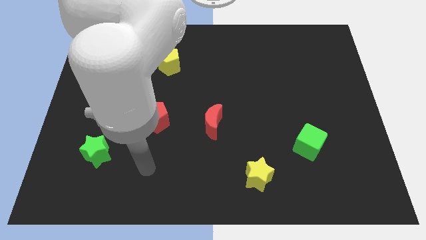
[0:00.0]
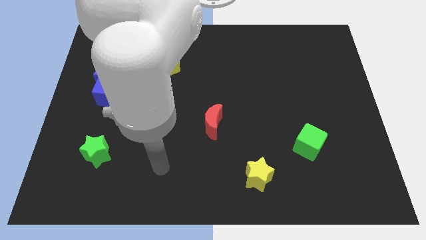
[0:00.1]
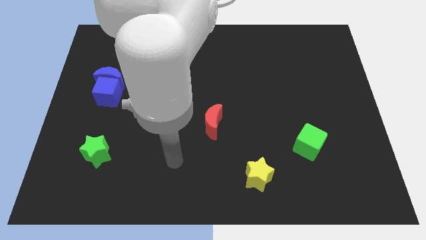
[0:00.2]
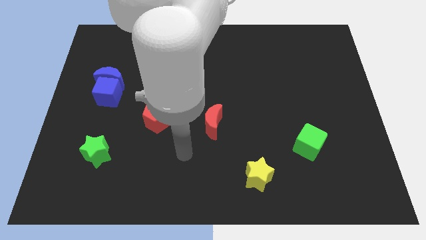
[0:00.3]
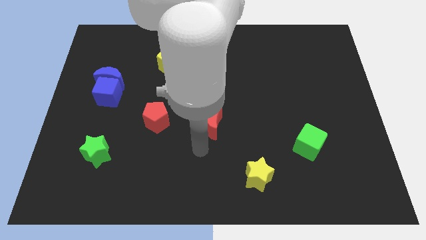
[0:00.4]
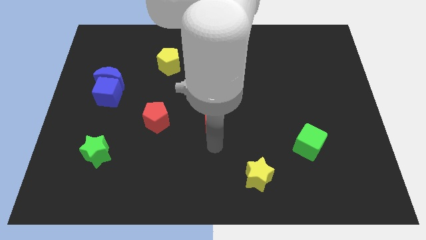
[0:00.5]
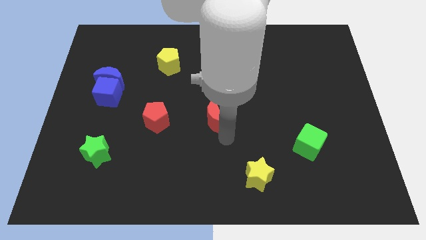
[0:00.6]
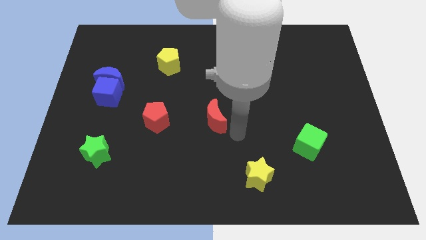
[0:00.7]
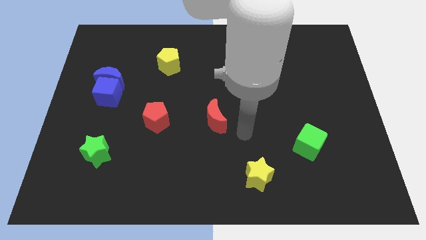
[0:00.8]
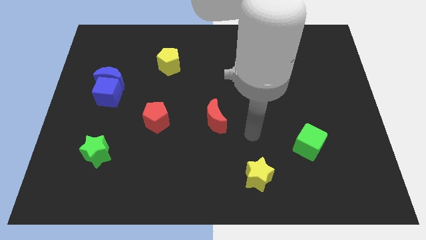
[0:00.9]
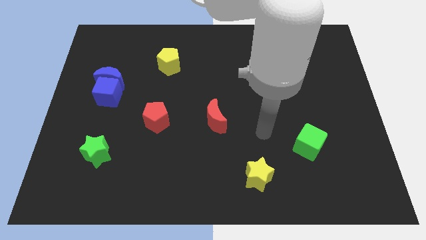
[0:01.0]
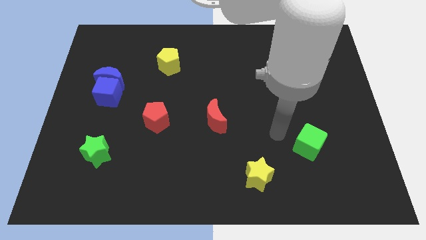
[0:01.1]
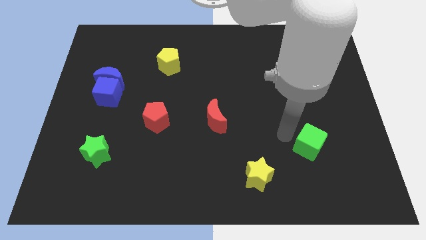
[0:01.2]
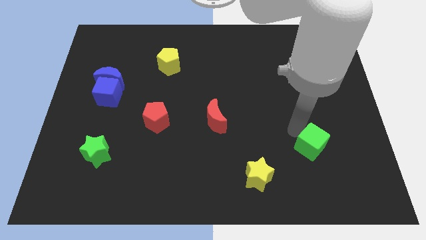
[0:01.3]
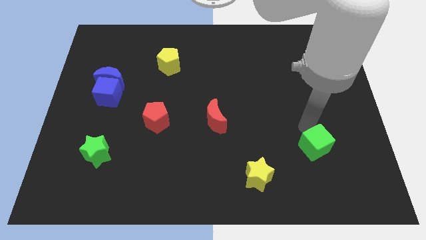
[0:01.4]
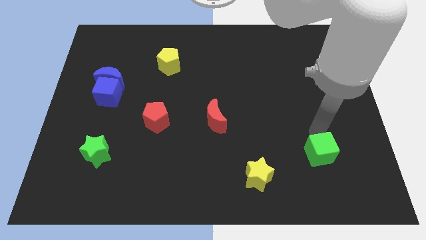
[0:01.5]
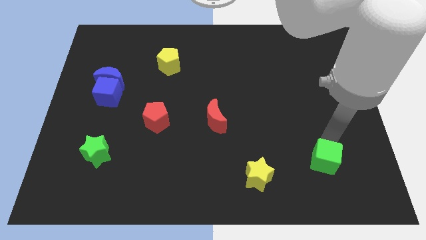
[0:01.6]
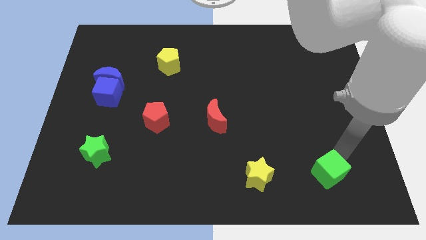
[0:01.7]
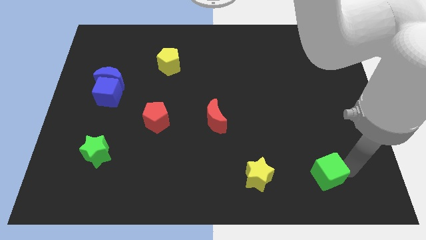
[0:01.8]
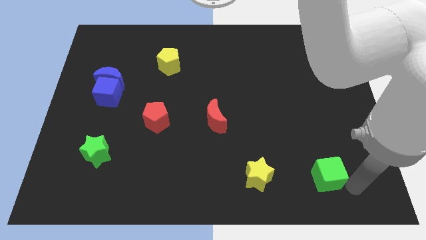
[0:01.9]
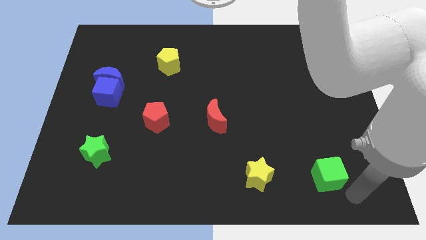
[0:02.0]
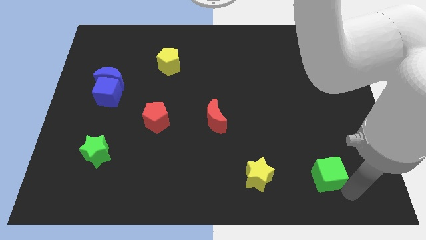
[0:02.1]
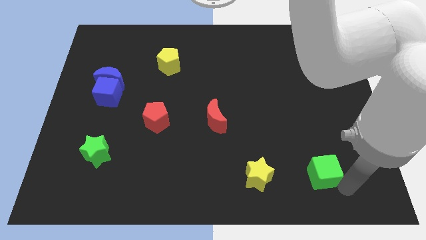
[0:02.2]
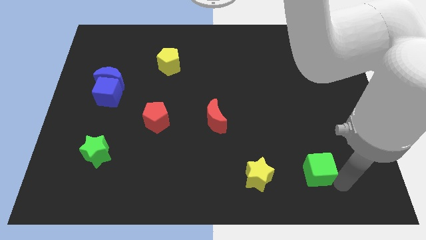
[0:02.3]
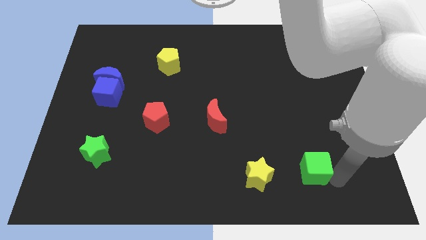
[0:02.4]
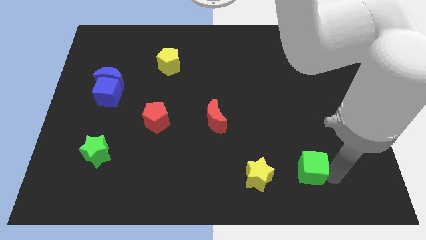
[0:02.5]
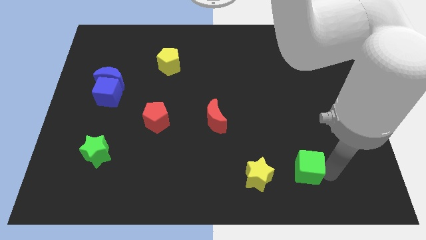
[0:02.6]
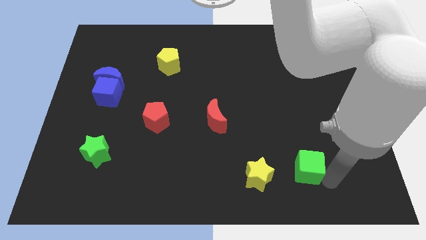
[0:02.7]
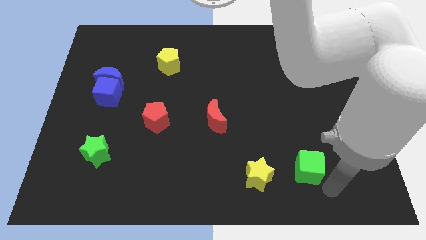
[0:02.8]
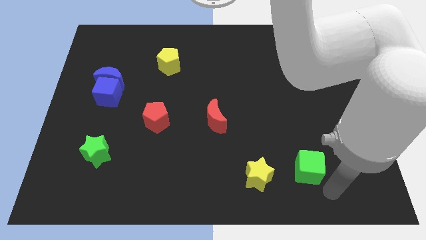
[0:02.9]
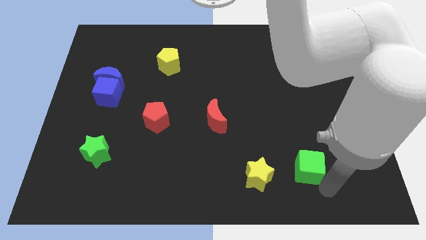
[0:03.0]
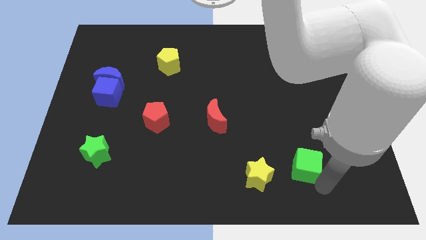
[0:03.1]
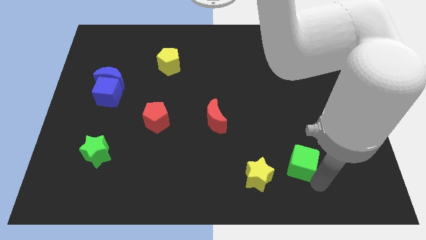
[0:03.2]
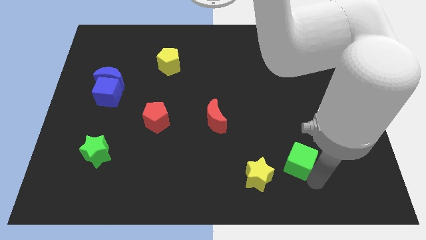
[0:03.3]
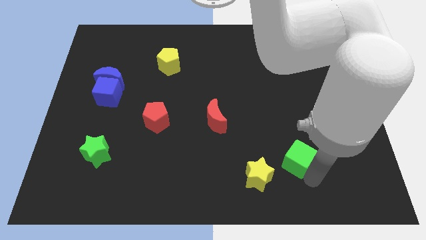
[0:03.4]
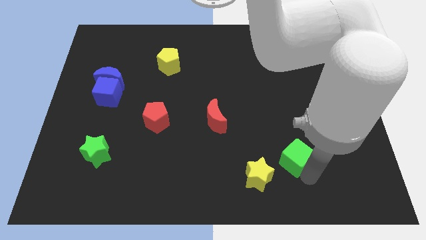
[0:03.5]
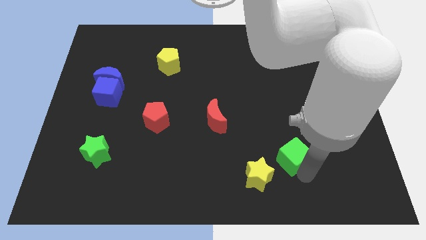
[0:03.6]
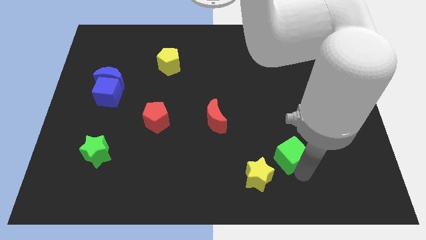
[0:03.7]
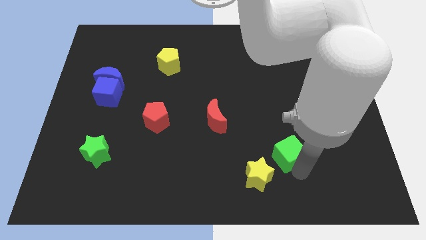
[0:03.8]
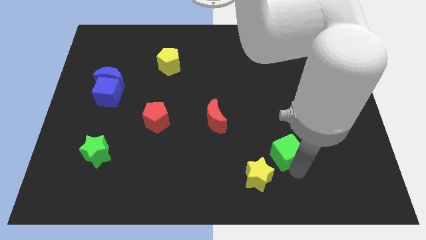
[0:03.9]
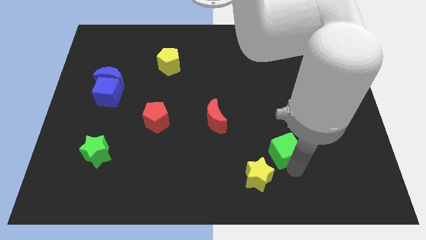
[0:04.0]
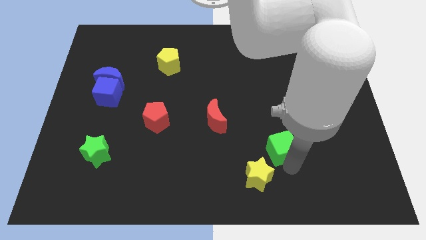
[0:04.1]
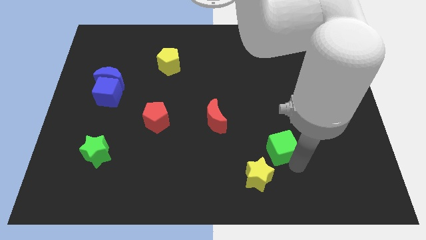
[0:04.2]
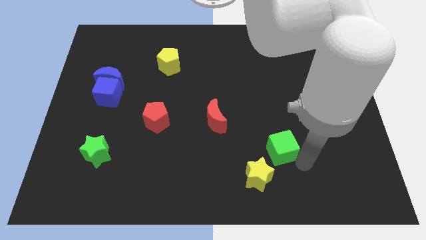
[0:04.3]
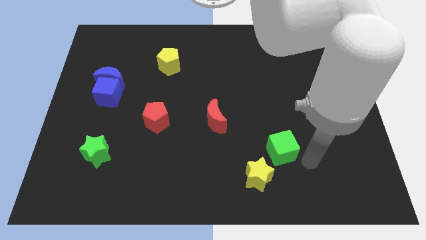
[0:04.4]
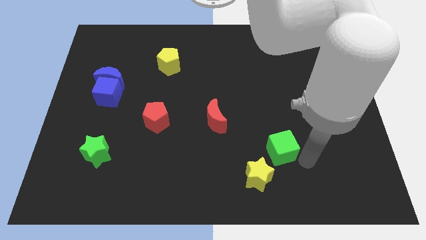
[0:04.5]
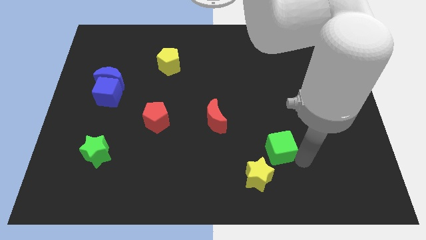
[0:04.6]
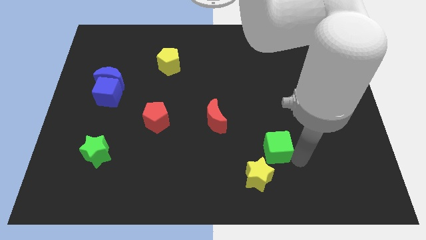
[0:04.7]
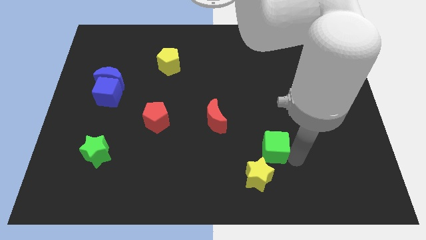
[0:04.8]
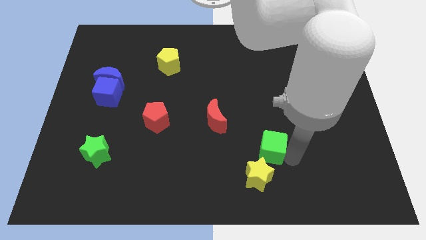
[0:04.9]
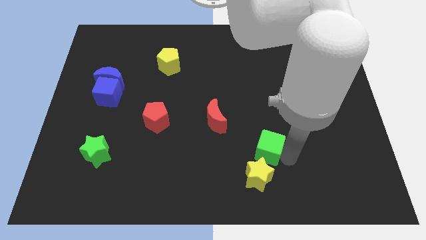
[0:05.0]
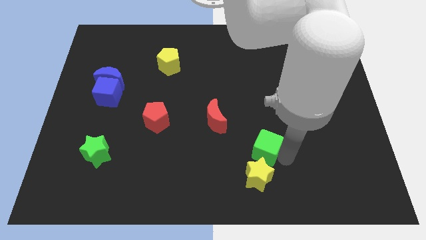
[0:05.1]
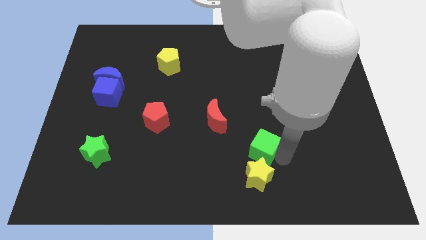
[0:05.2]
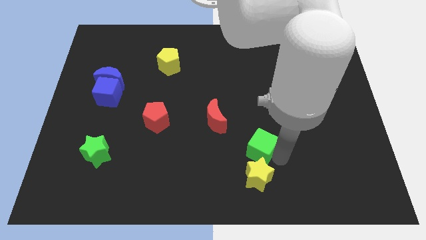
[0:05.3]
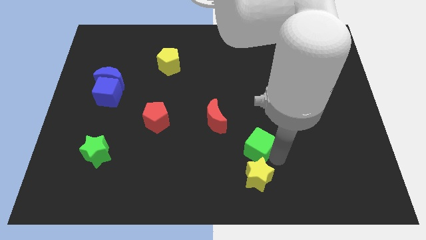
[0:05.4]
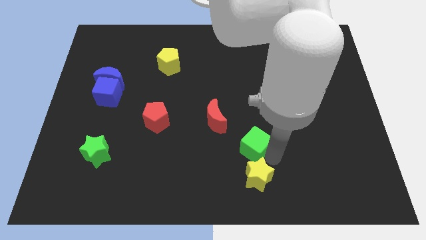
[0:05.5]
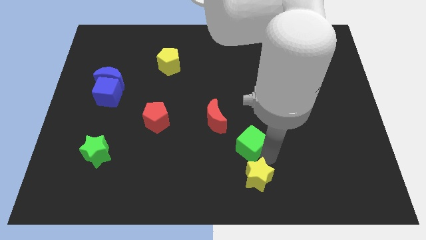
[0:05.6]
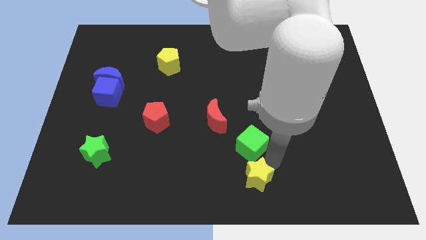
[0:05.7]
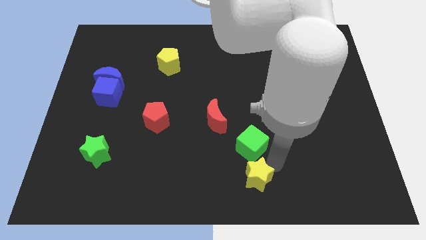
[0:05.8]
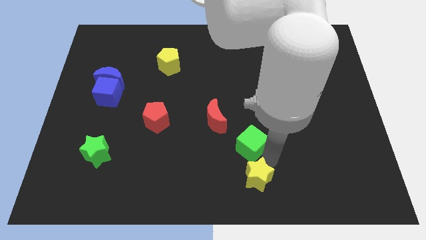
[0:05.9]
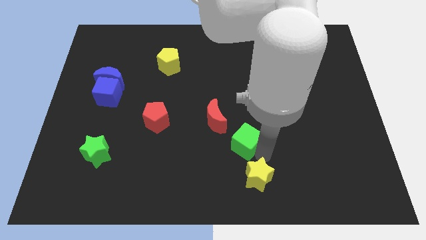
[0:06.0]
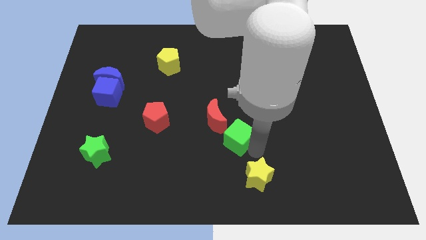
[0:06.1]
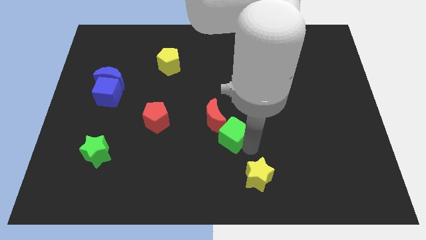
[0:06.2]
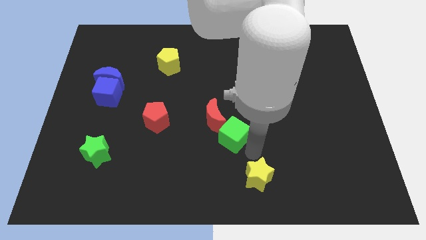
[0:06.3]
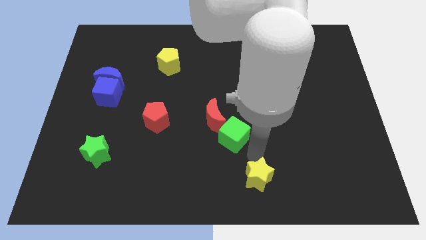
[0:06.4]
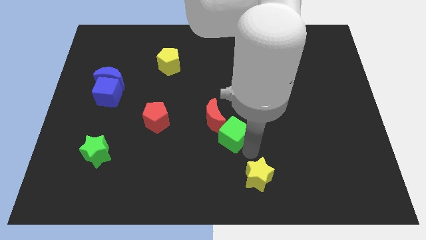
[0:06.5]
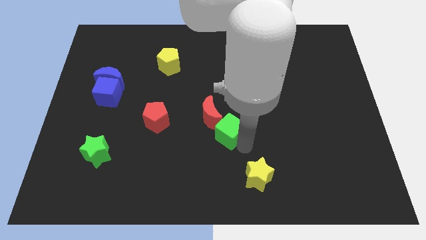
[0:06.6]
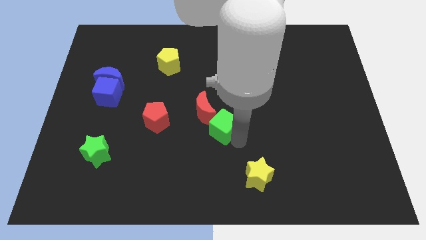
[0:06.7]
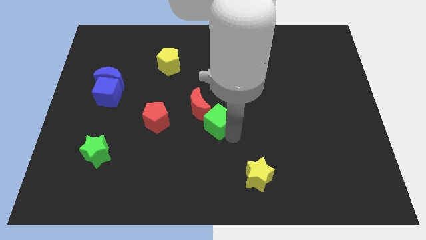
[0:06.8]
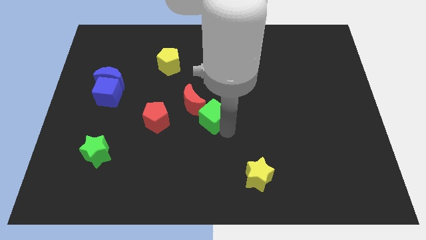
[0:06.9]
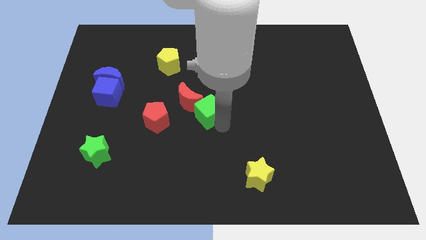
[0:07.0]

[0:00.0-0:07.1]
push the green cube to the red moon
